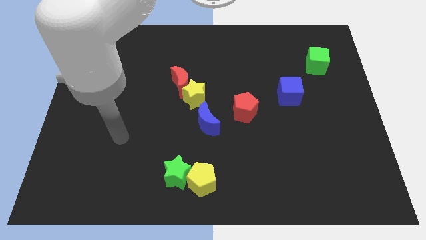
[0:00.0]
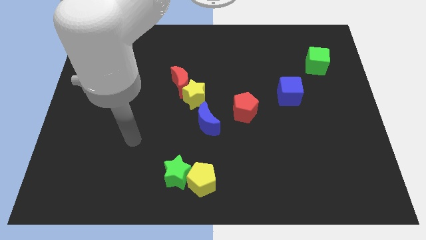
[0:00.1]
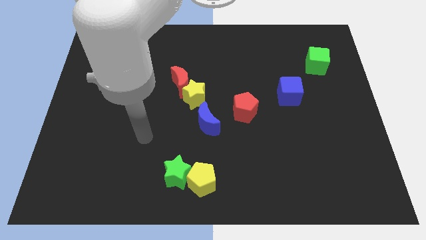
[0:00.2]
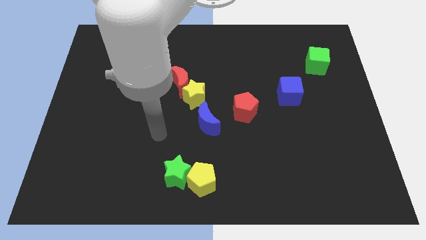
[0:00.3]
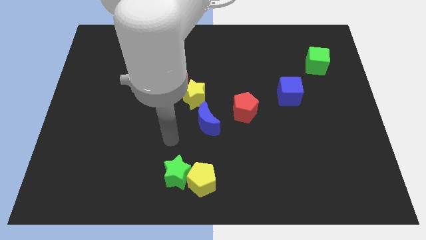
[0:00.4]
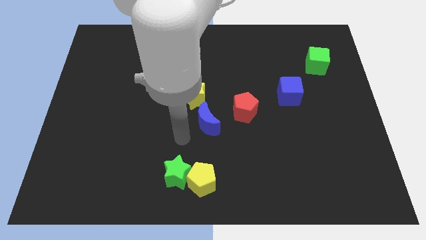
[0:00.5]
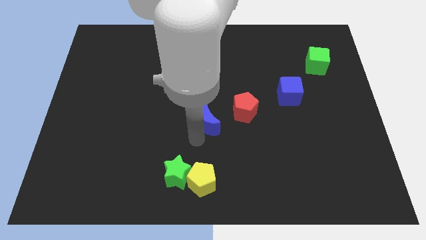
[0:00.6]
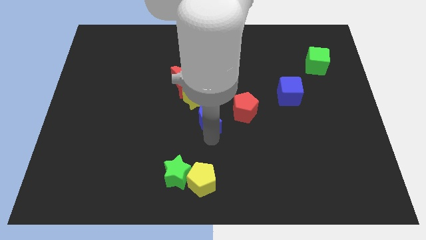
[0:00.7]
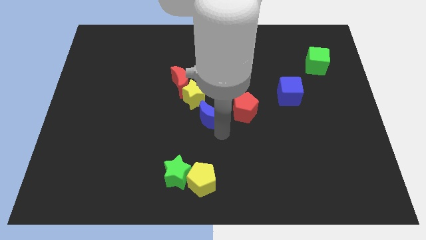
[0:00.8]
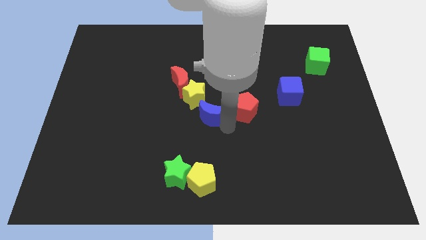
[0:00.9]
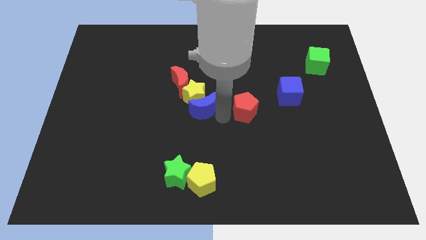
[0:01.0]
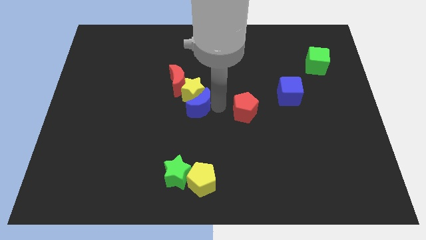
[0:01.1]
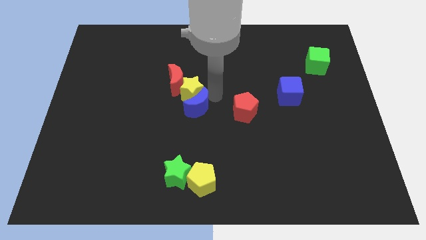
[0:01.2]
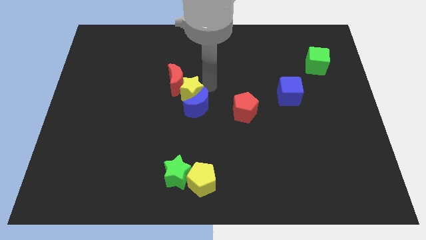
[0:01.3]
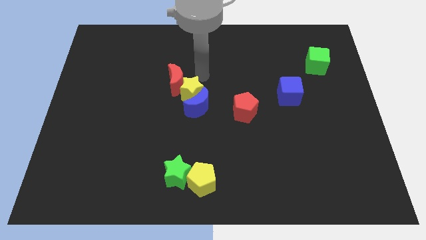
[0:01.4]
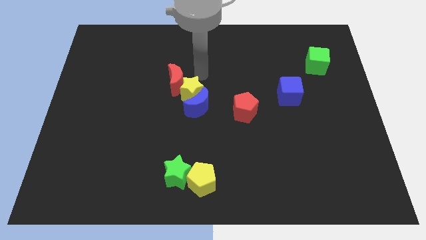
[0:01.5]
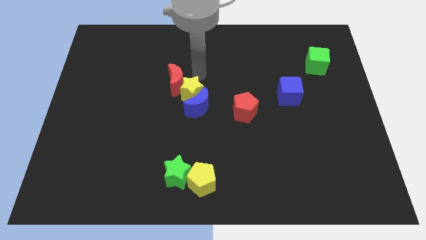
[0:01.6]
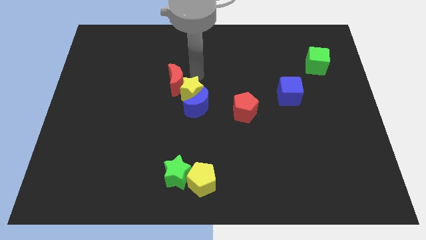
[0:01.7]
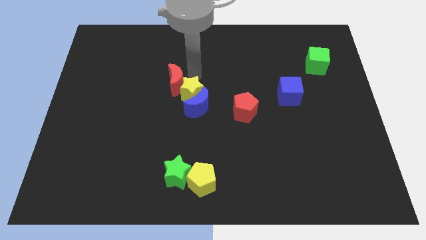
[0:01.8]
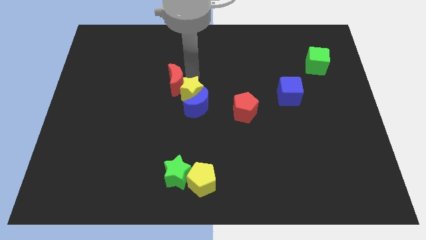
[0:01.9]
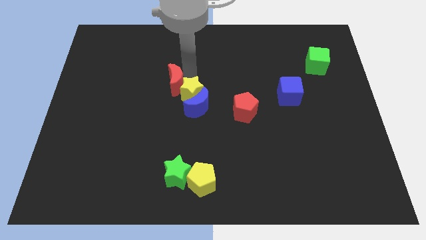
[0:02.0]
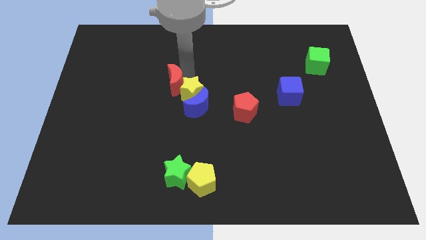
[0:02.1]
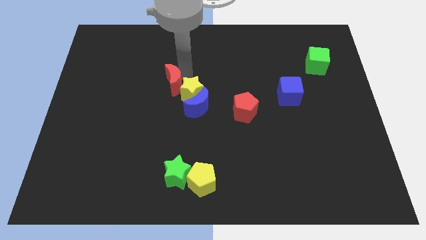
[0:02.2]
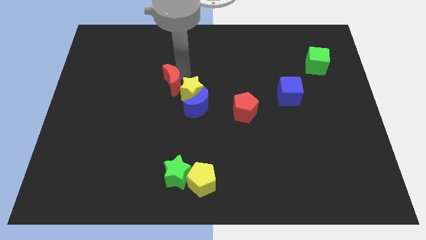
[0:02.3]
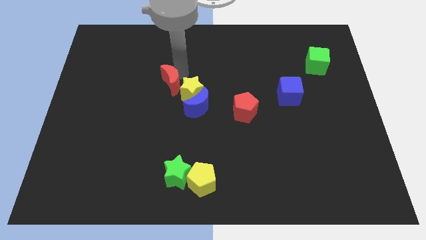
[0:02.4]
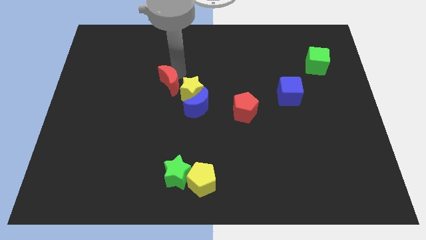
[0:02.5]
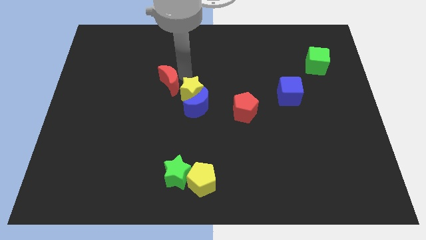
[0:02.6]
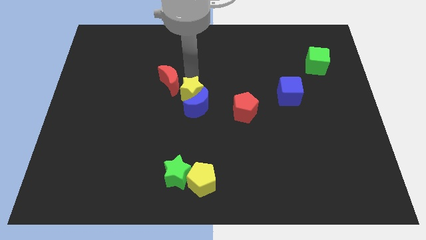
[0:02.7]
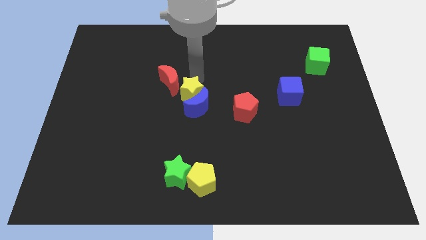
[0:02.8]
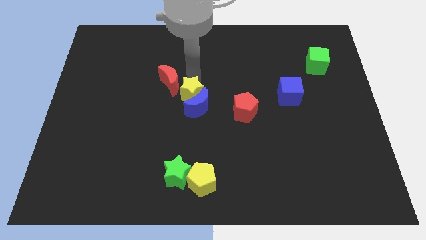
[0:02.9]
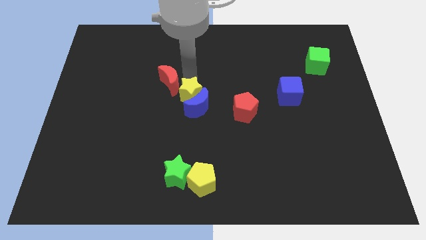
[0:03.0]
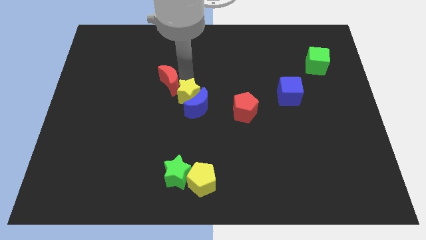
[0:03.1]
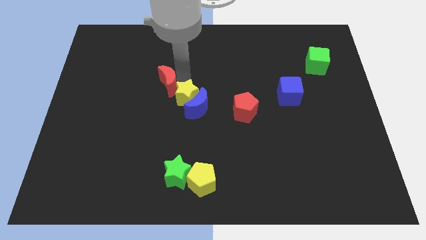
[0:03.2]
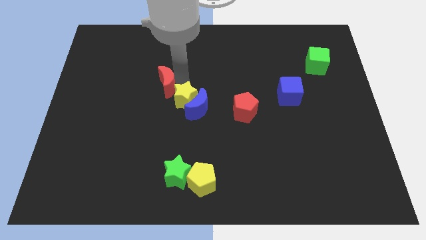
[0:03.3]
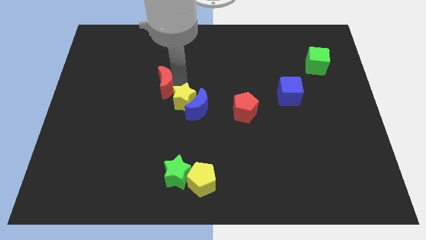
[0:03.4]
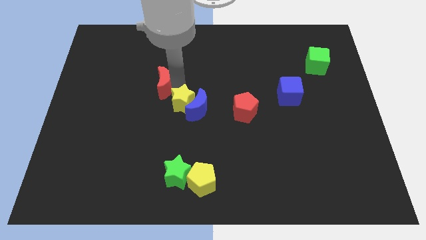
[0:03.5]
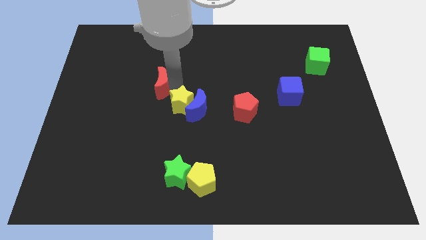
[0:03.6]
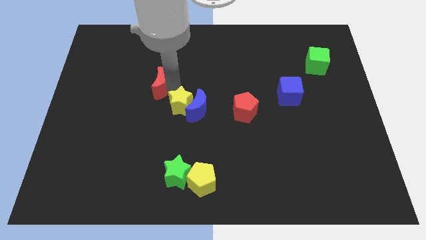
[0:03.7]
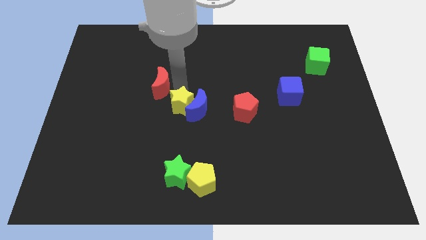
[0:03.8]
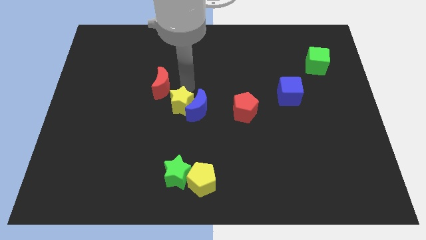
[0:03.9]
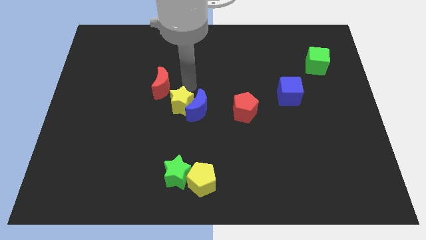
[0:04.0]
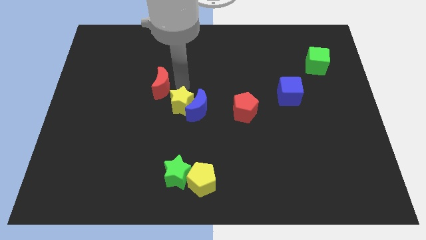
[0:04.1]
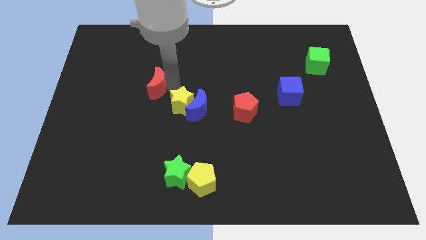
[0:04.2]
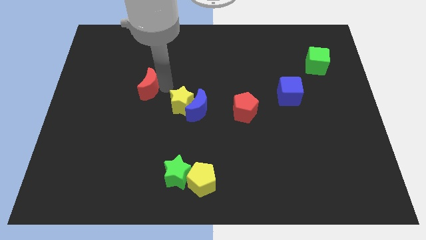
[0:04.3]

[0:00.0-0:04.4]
slightly slide the red moon to the left

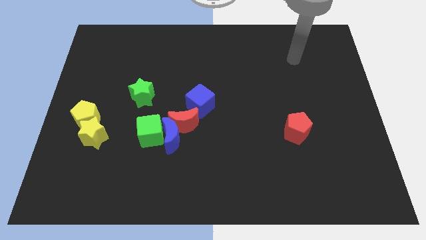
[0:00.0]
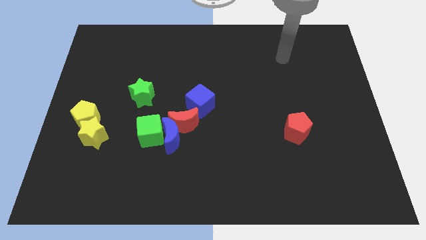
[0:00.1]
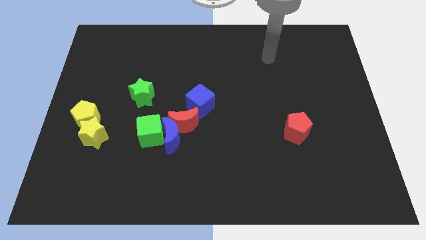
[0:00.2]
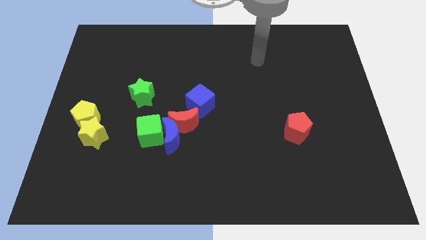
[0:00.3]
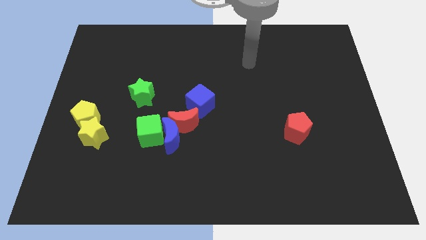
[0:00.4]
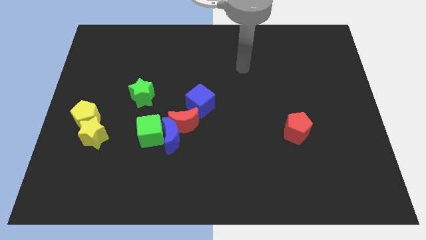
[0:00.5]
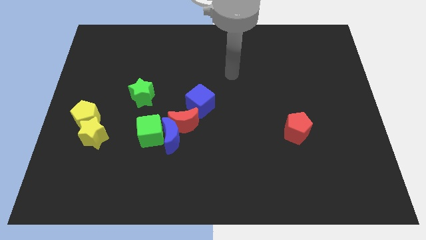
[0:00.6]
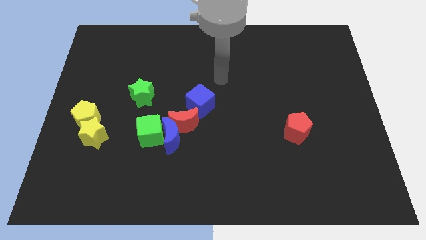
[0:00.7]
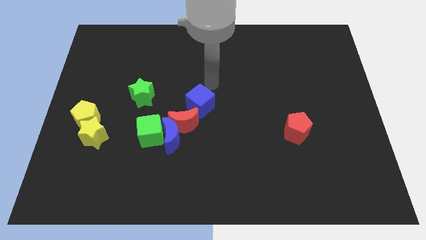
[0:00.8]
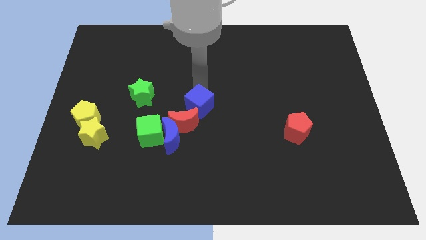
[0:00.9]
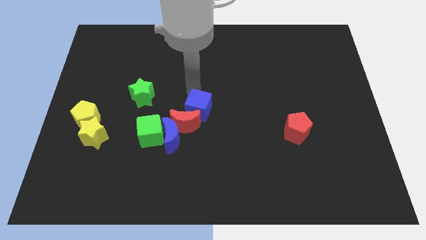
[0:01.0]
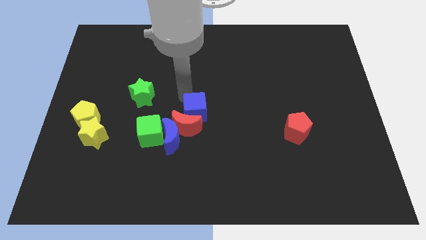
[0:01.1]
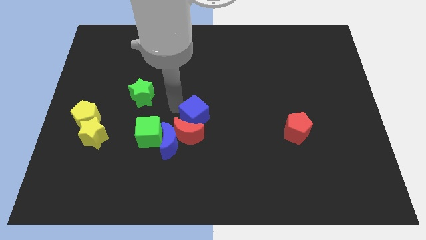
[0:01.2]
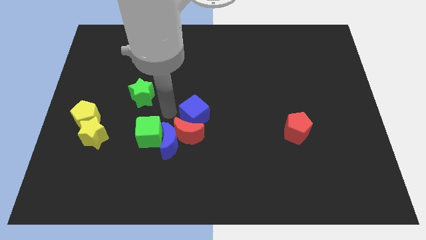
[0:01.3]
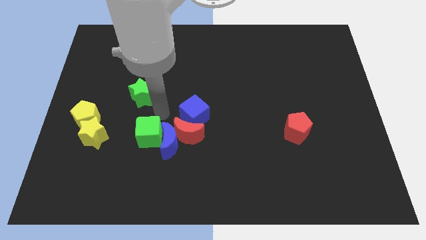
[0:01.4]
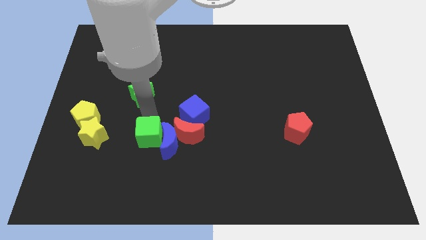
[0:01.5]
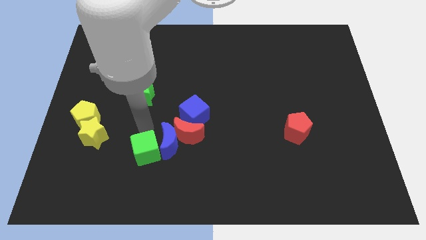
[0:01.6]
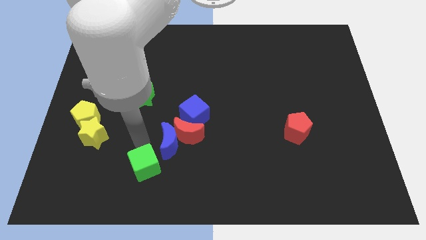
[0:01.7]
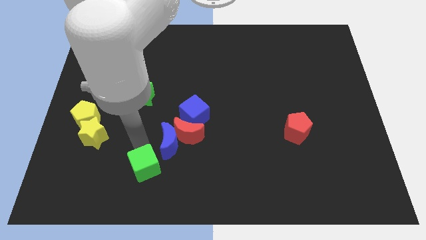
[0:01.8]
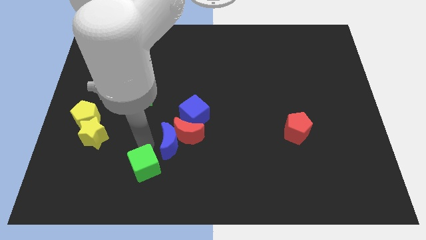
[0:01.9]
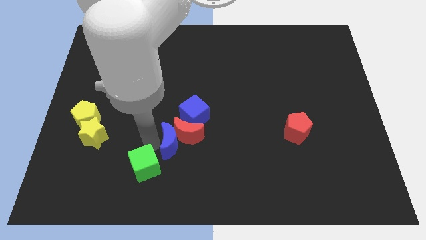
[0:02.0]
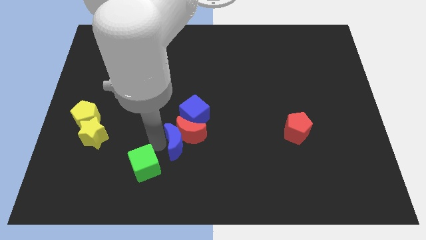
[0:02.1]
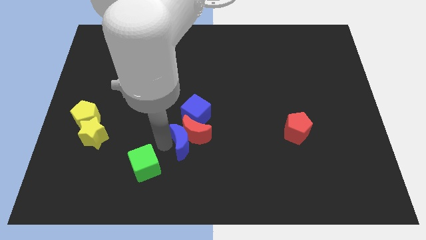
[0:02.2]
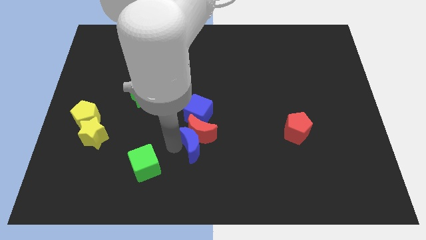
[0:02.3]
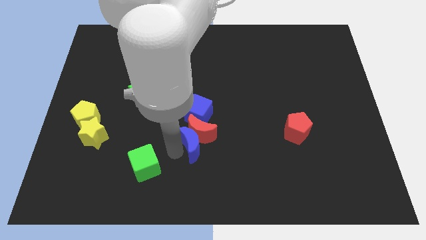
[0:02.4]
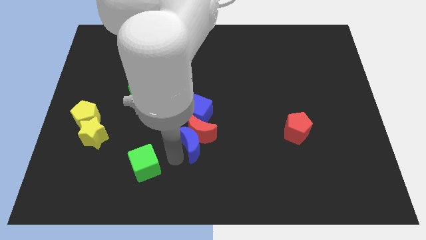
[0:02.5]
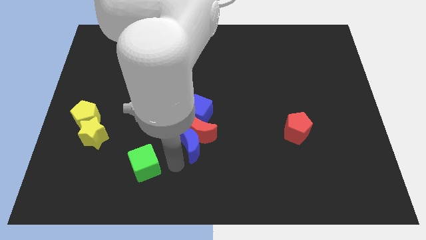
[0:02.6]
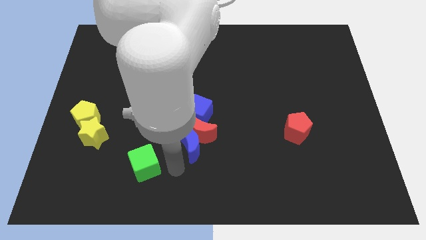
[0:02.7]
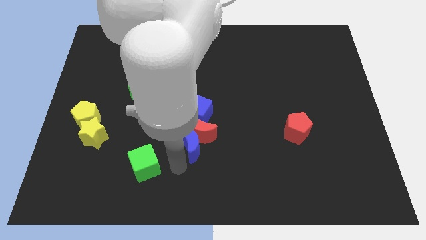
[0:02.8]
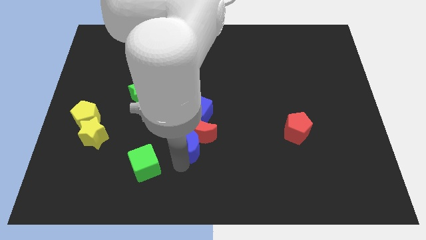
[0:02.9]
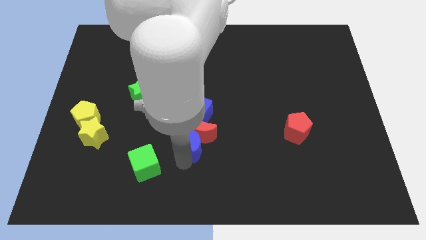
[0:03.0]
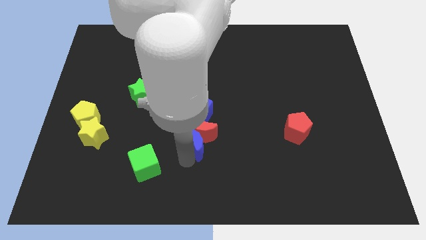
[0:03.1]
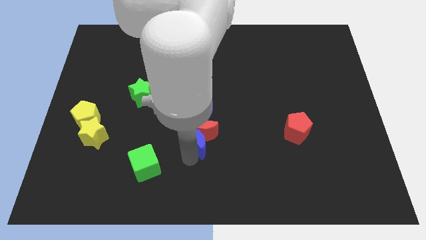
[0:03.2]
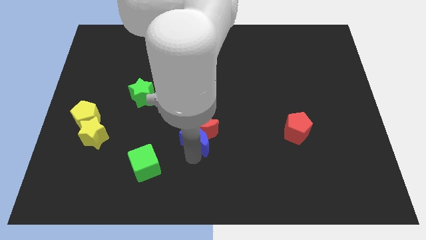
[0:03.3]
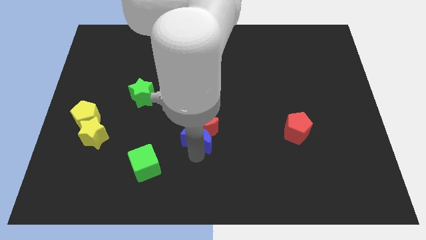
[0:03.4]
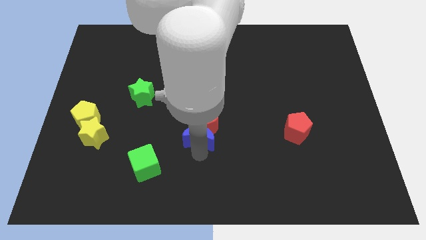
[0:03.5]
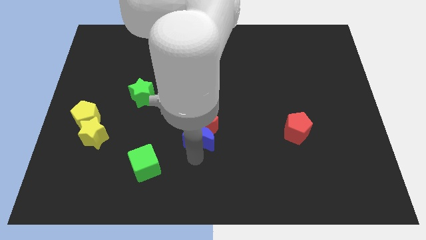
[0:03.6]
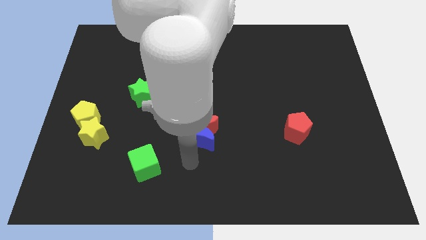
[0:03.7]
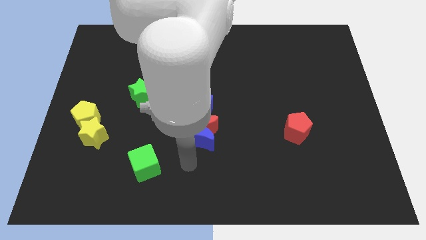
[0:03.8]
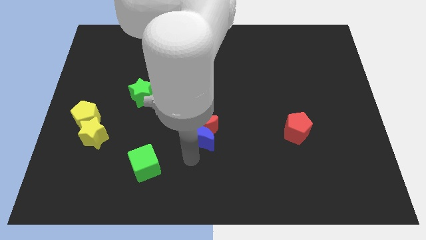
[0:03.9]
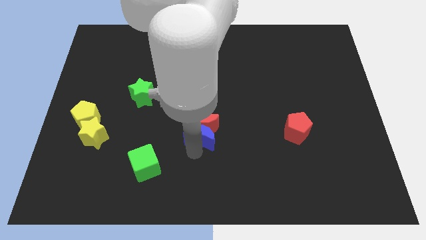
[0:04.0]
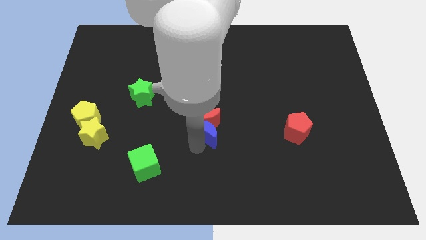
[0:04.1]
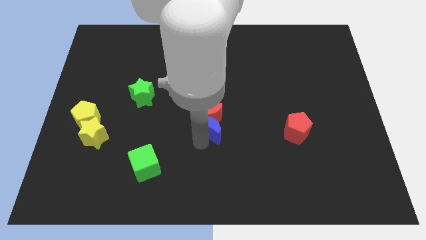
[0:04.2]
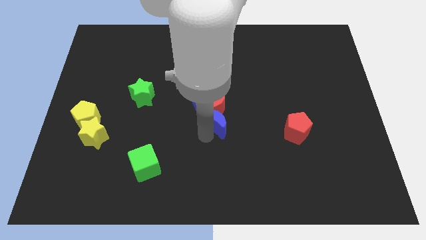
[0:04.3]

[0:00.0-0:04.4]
slightly move the blue moon up and right
